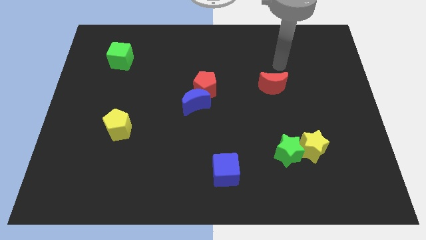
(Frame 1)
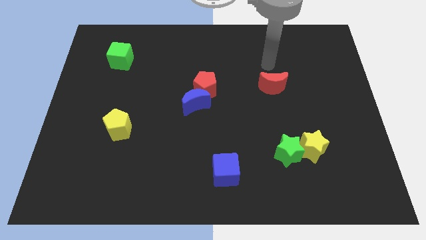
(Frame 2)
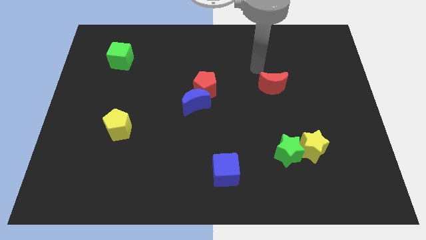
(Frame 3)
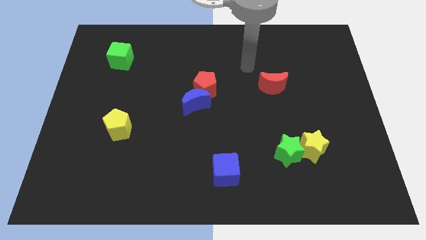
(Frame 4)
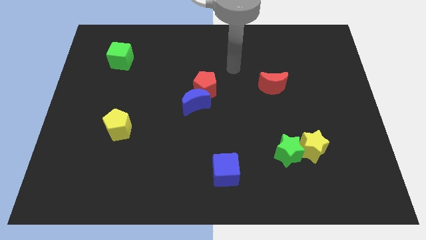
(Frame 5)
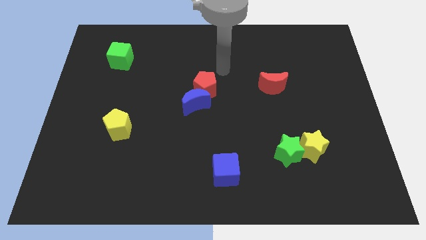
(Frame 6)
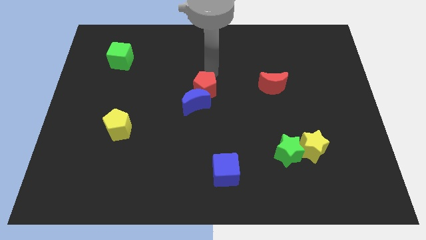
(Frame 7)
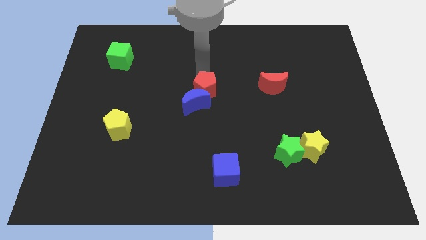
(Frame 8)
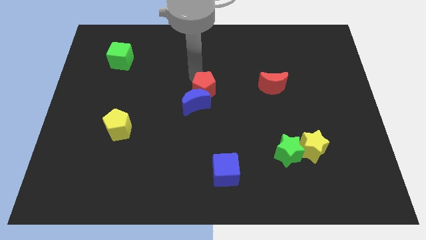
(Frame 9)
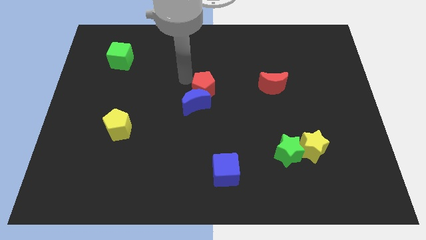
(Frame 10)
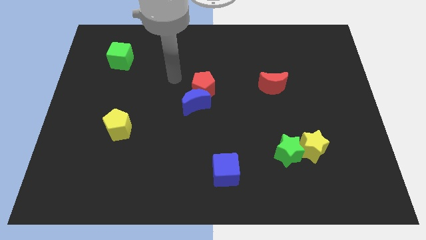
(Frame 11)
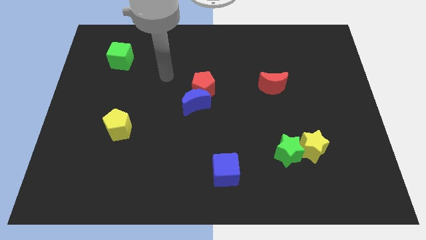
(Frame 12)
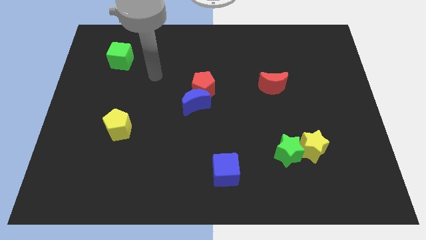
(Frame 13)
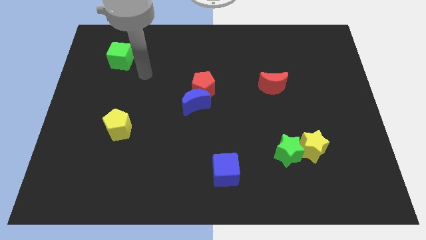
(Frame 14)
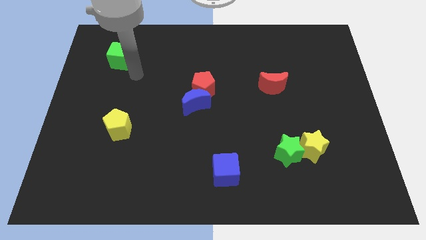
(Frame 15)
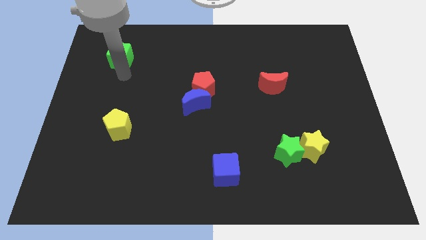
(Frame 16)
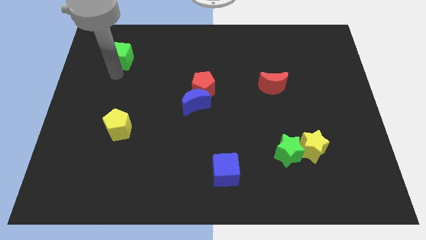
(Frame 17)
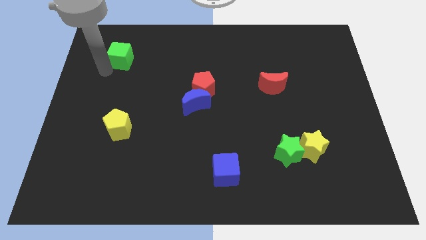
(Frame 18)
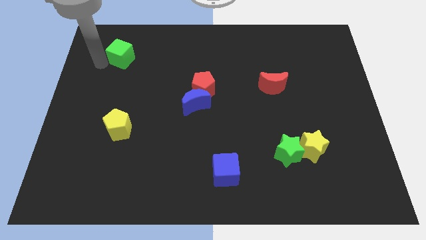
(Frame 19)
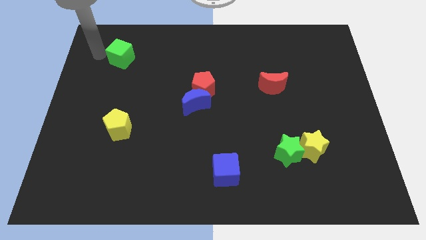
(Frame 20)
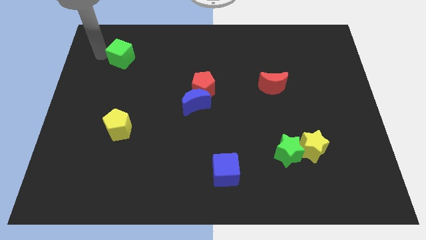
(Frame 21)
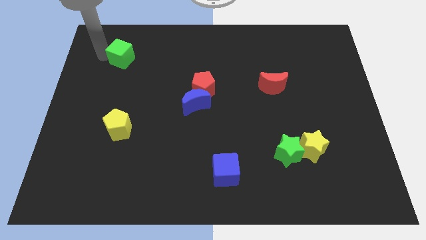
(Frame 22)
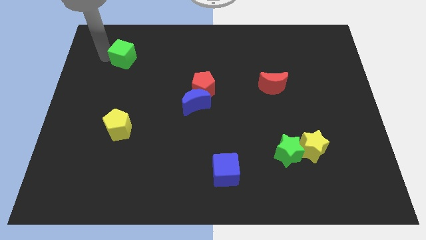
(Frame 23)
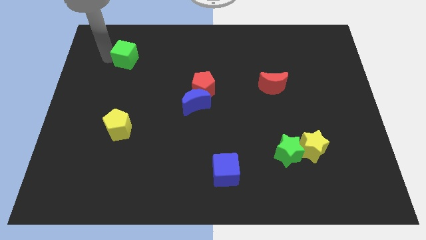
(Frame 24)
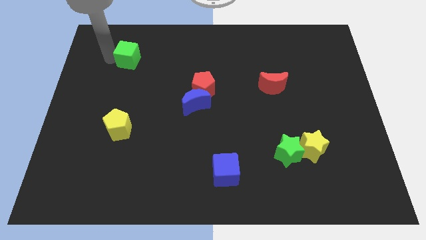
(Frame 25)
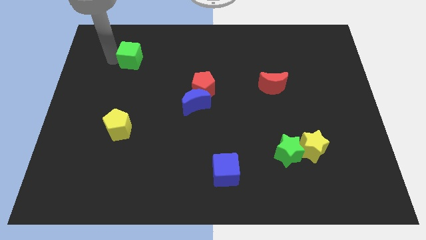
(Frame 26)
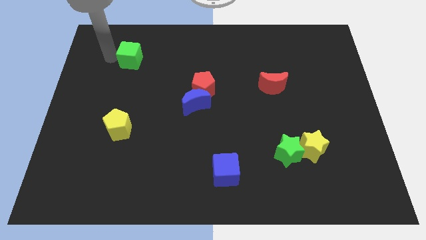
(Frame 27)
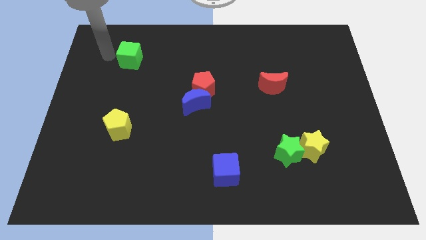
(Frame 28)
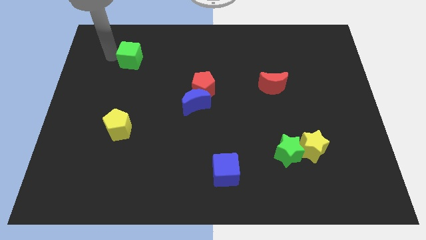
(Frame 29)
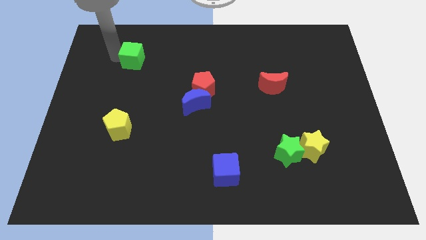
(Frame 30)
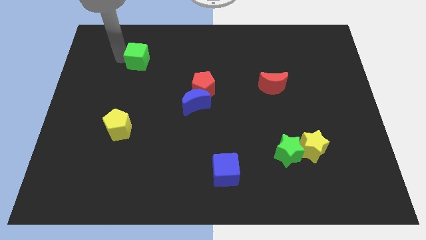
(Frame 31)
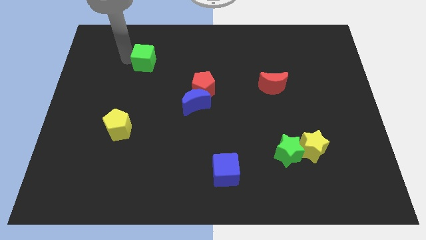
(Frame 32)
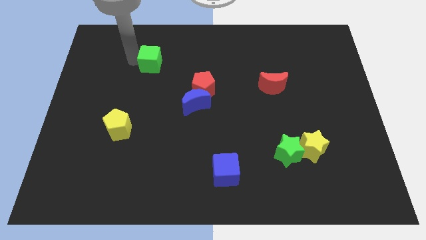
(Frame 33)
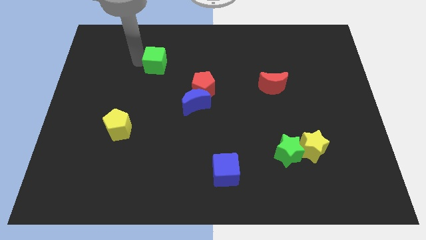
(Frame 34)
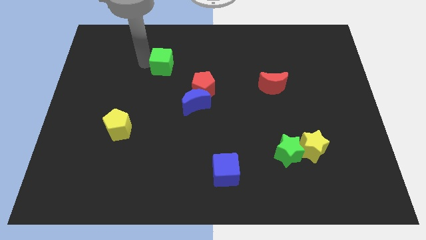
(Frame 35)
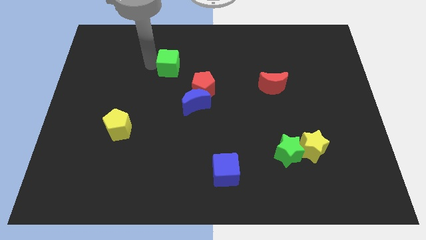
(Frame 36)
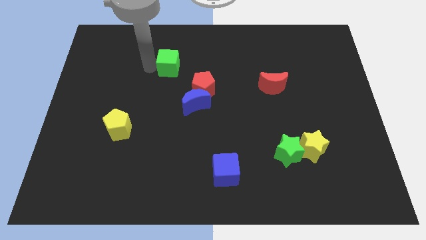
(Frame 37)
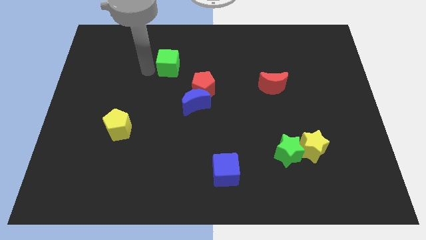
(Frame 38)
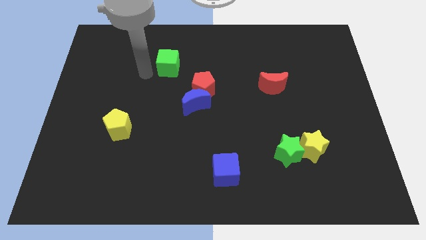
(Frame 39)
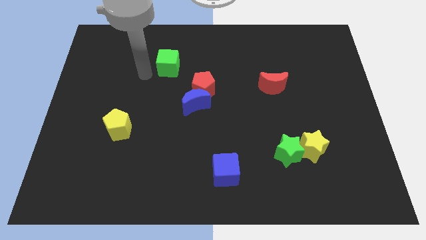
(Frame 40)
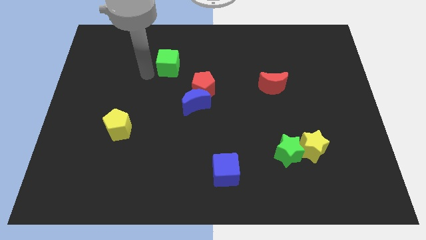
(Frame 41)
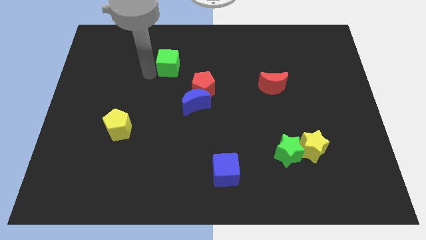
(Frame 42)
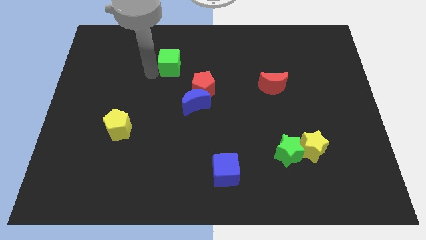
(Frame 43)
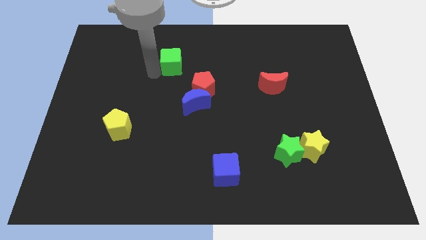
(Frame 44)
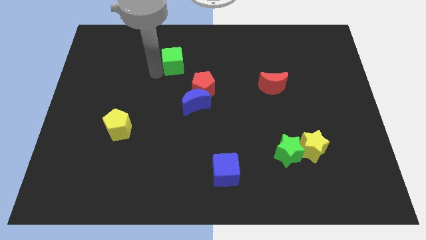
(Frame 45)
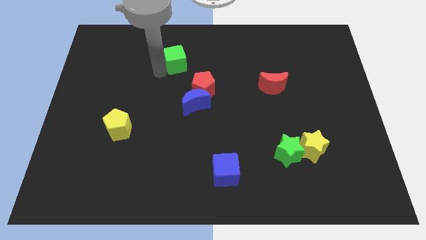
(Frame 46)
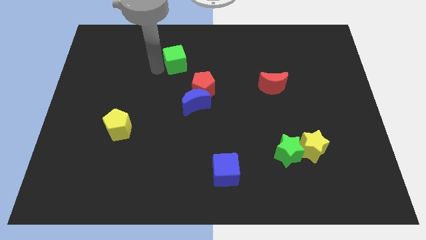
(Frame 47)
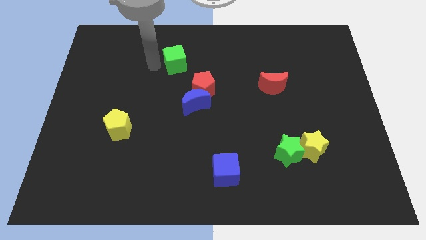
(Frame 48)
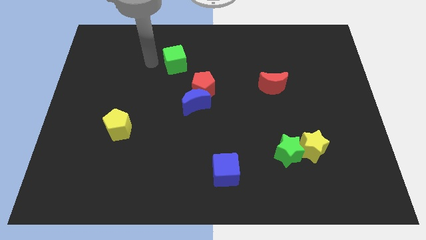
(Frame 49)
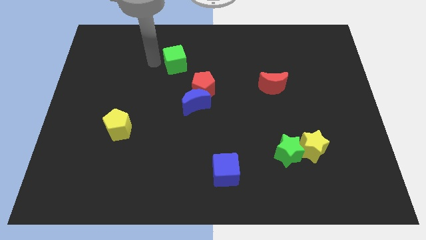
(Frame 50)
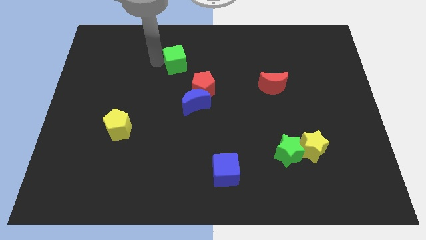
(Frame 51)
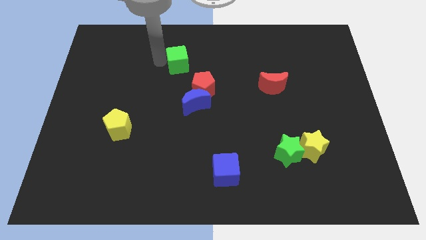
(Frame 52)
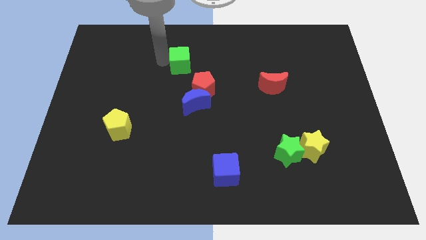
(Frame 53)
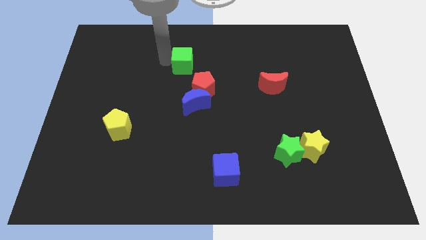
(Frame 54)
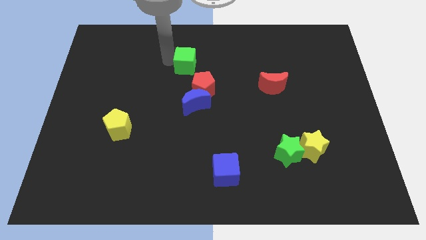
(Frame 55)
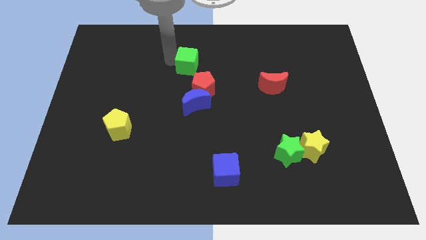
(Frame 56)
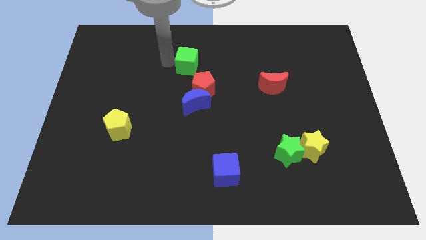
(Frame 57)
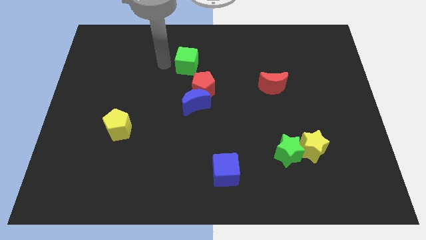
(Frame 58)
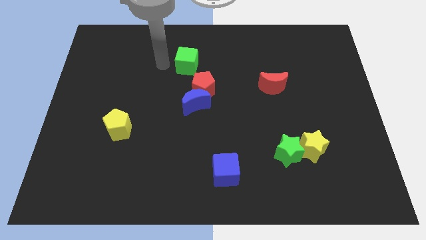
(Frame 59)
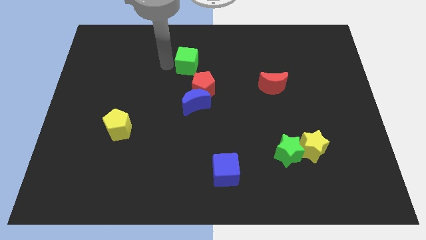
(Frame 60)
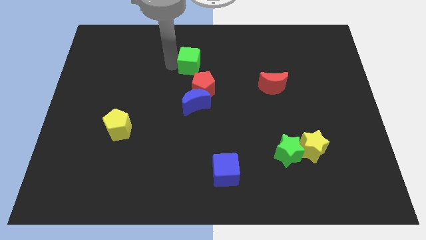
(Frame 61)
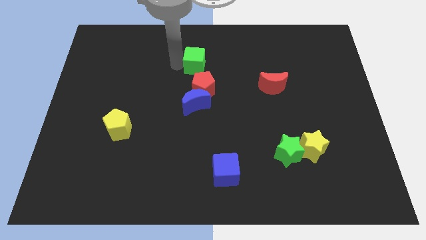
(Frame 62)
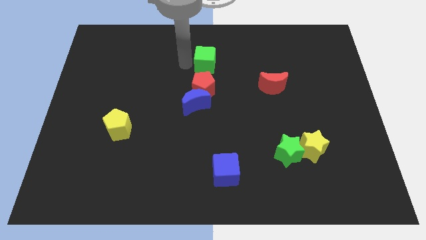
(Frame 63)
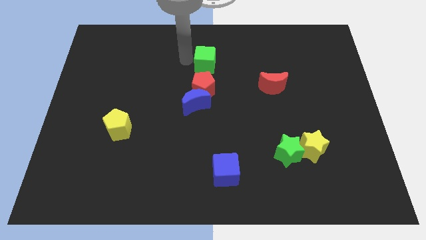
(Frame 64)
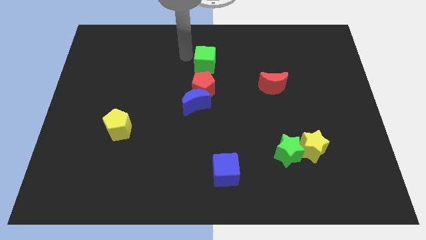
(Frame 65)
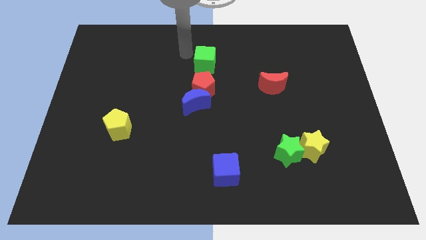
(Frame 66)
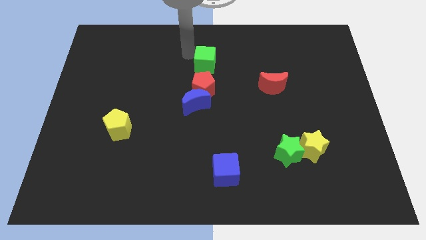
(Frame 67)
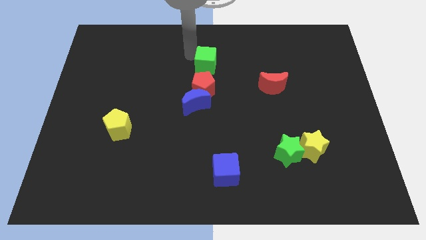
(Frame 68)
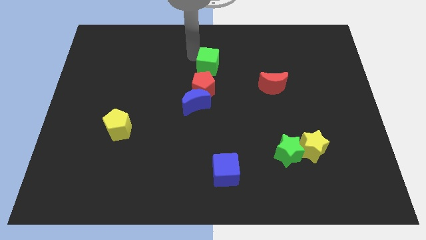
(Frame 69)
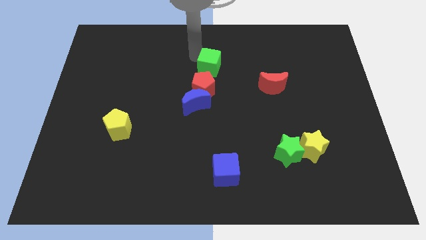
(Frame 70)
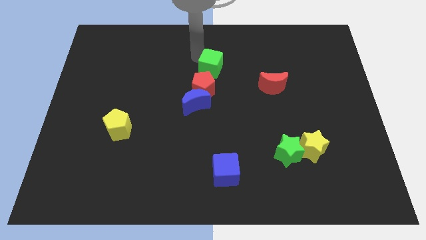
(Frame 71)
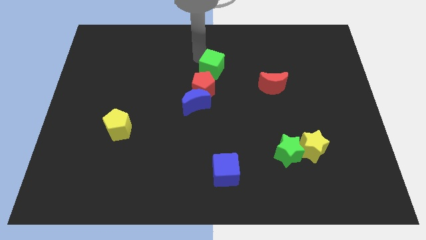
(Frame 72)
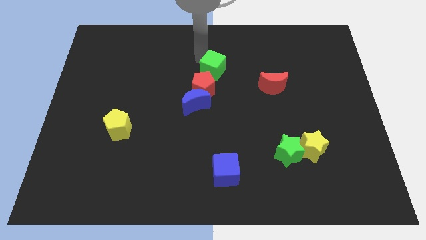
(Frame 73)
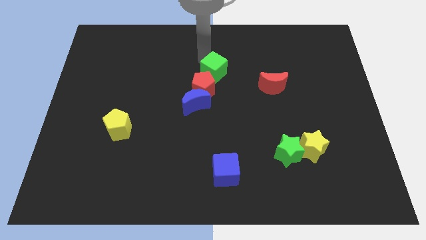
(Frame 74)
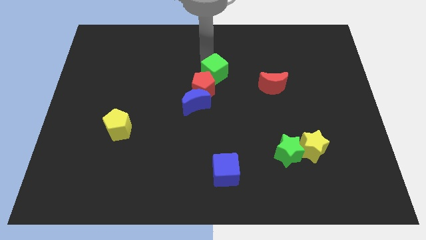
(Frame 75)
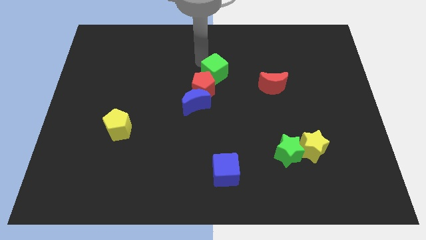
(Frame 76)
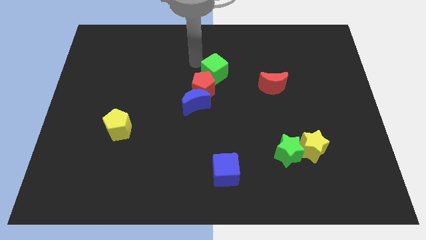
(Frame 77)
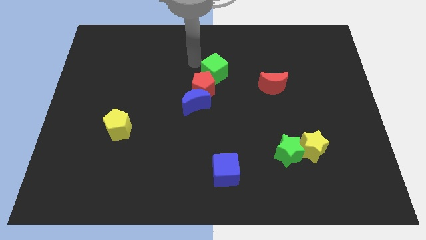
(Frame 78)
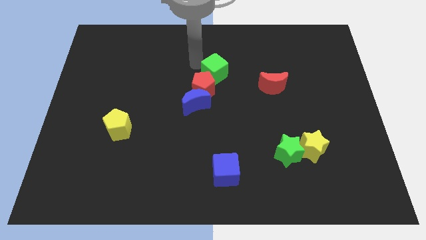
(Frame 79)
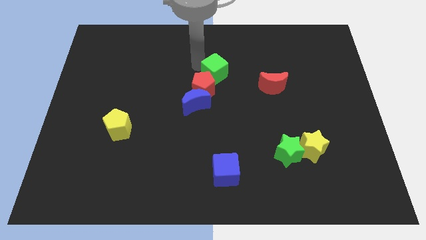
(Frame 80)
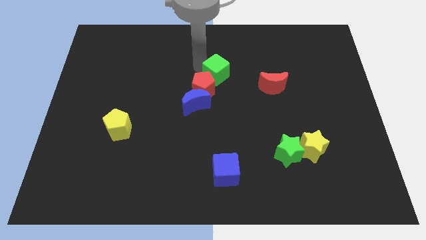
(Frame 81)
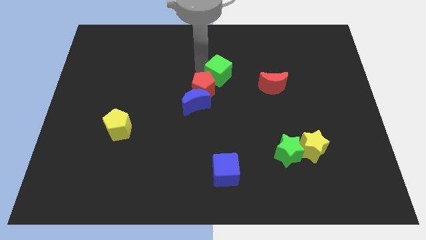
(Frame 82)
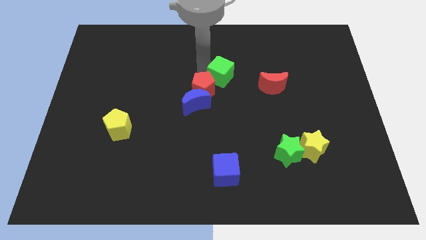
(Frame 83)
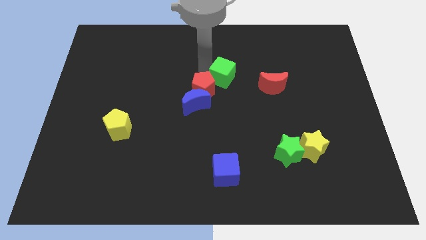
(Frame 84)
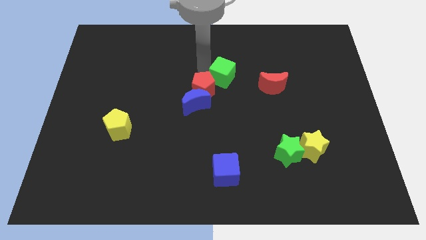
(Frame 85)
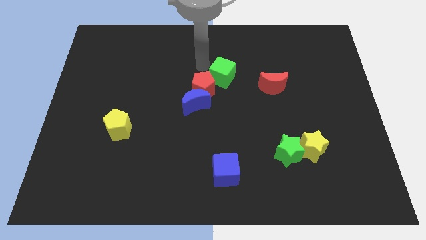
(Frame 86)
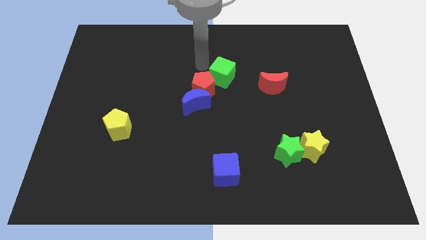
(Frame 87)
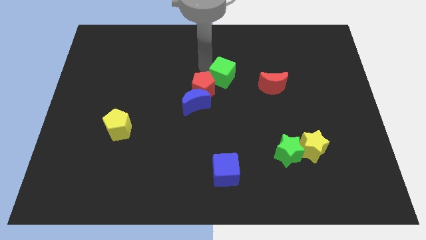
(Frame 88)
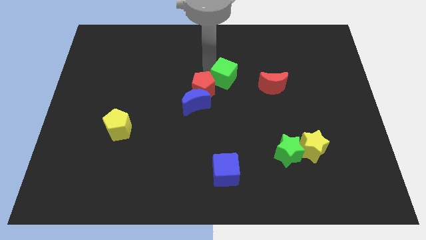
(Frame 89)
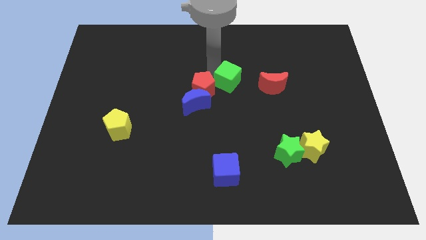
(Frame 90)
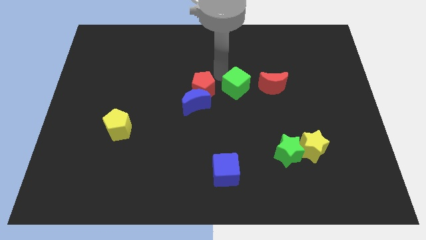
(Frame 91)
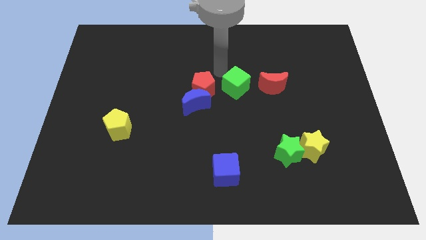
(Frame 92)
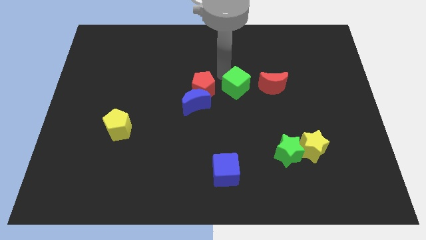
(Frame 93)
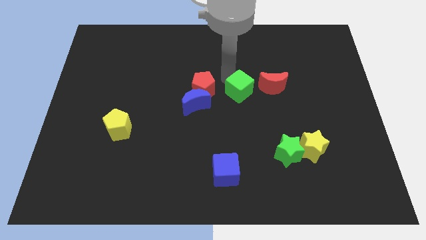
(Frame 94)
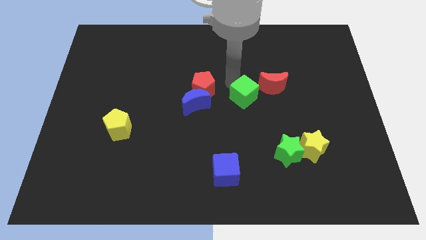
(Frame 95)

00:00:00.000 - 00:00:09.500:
slide the green cube to the bottom left of the red moon
